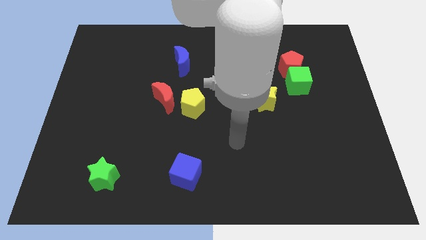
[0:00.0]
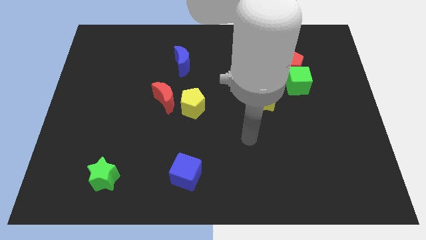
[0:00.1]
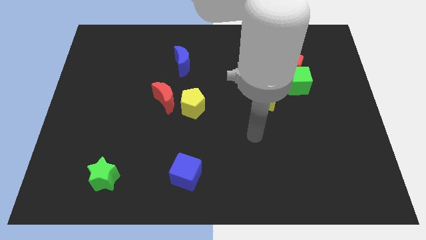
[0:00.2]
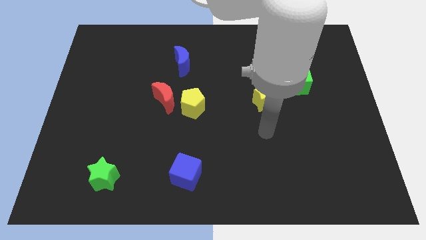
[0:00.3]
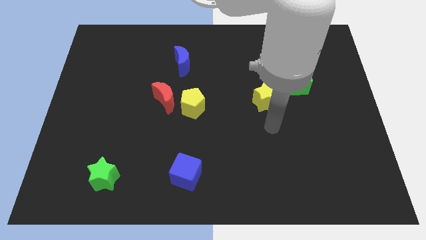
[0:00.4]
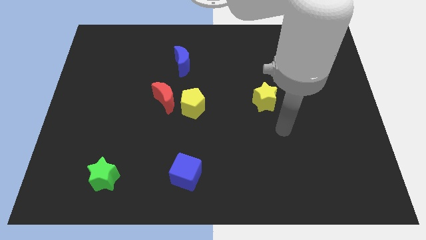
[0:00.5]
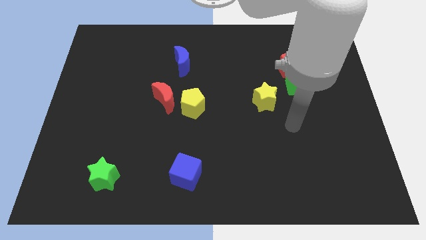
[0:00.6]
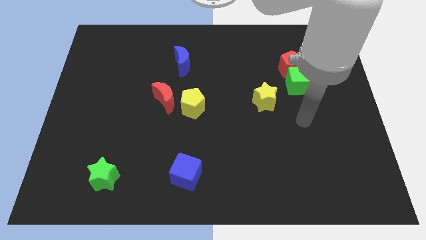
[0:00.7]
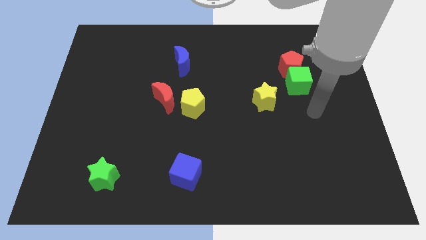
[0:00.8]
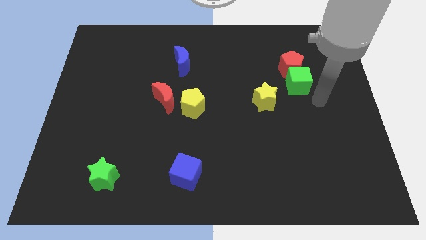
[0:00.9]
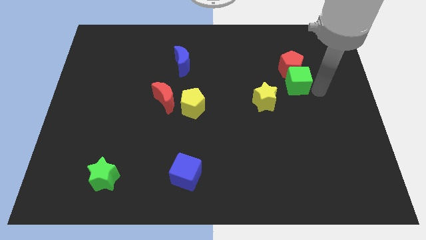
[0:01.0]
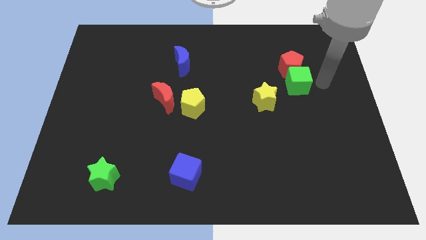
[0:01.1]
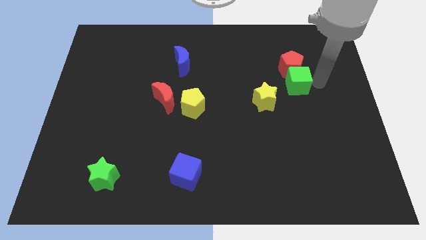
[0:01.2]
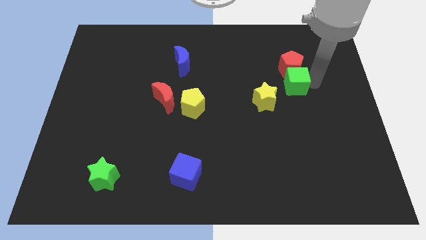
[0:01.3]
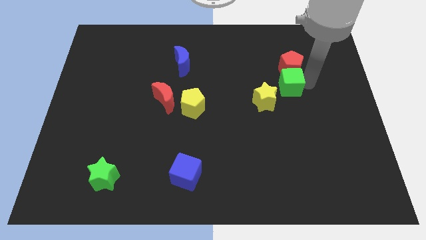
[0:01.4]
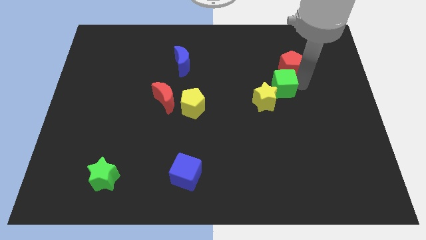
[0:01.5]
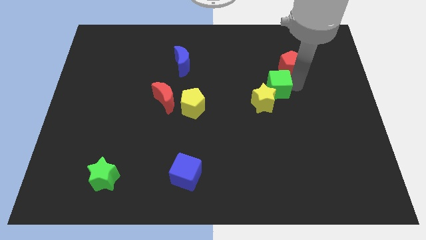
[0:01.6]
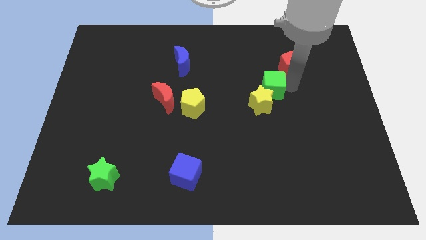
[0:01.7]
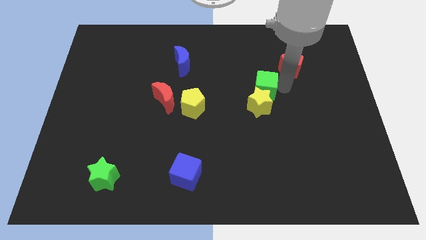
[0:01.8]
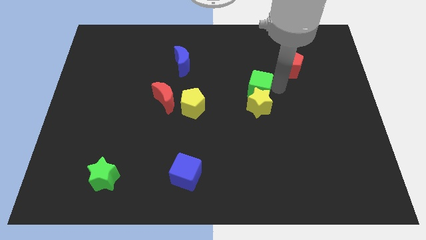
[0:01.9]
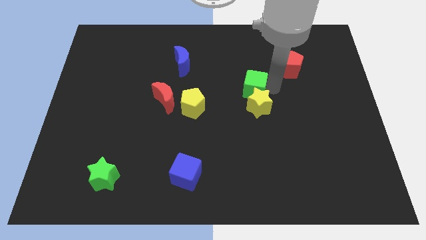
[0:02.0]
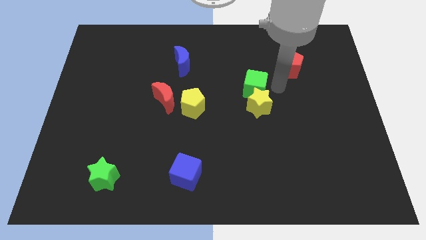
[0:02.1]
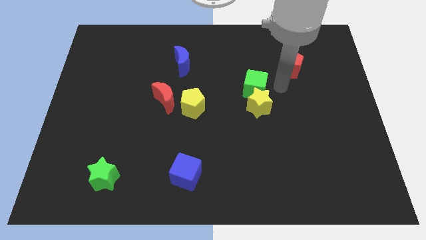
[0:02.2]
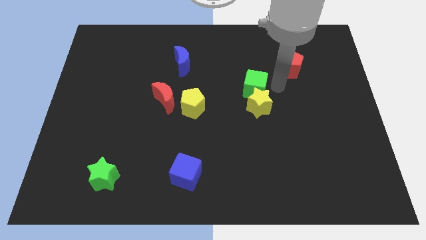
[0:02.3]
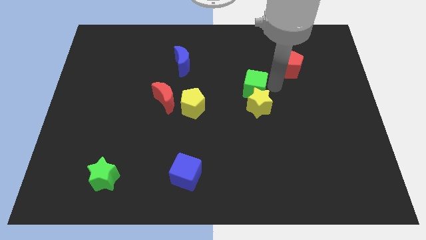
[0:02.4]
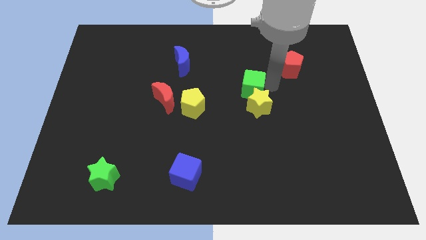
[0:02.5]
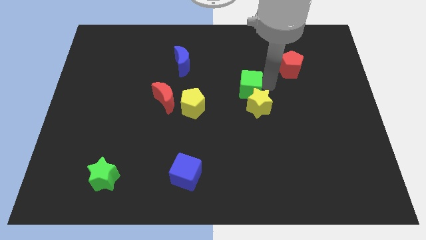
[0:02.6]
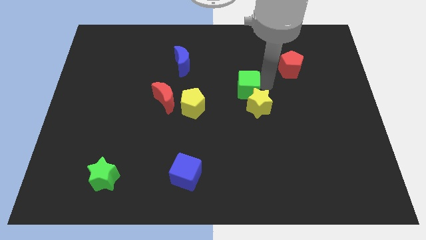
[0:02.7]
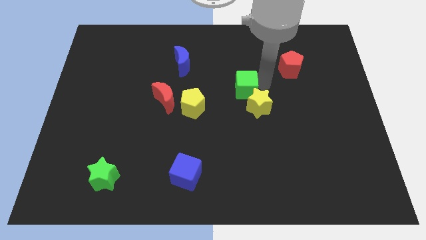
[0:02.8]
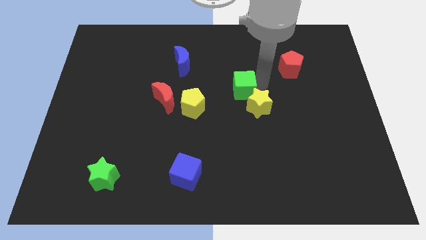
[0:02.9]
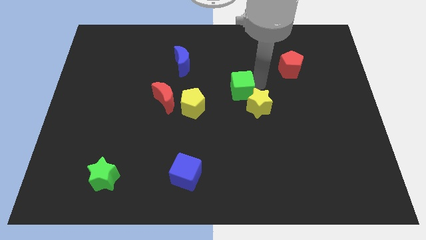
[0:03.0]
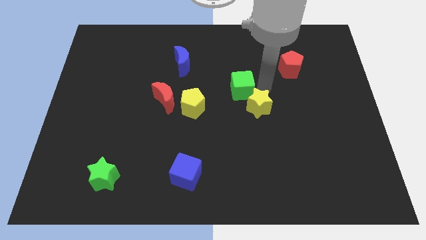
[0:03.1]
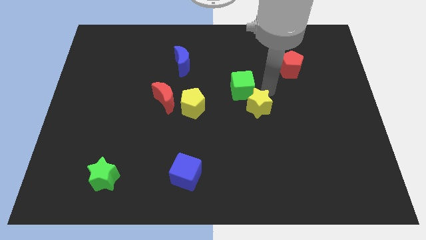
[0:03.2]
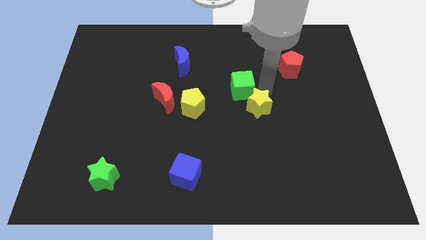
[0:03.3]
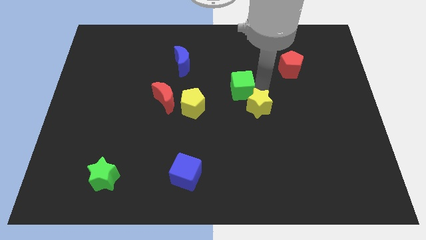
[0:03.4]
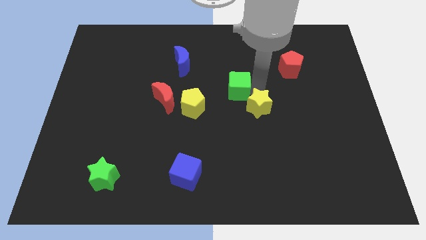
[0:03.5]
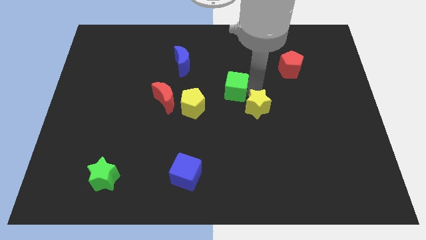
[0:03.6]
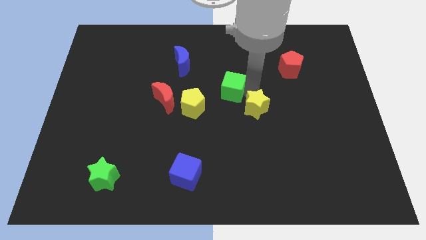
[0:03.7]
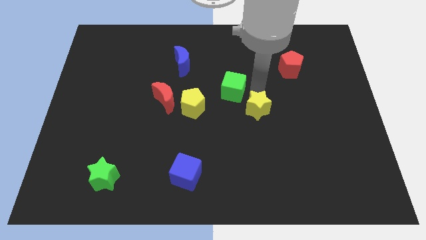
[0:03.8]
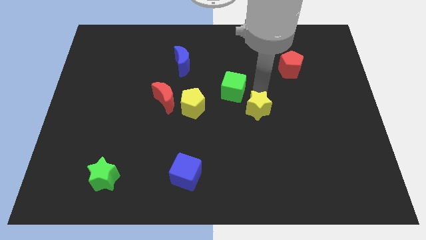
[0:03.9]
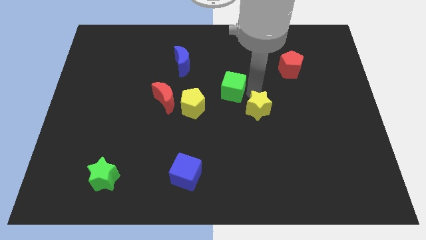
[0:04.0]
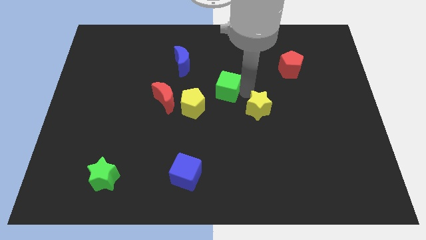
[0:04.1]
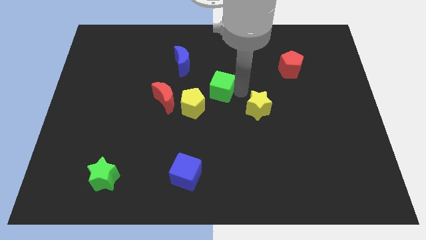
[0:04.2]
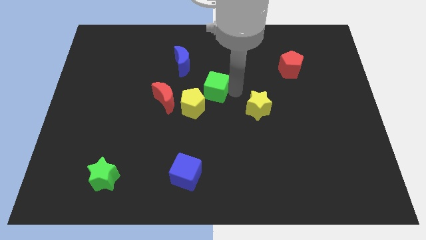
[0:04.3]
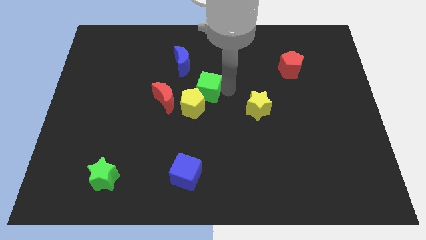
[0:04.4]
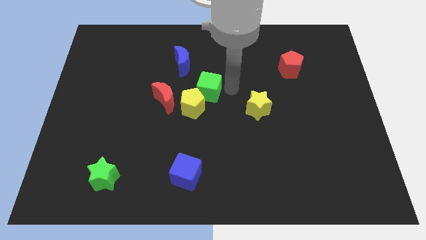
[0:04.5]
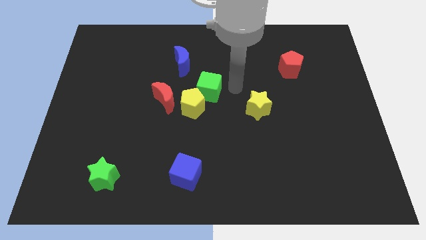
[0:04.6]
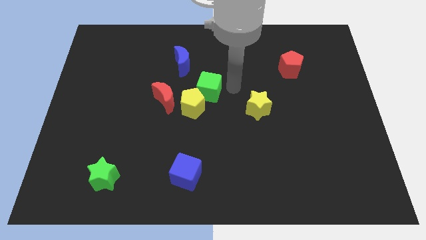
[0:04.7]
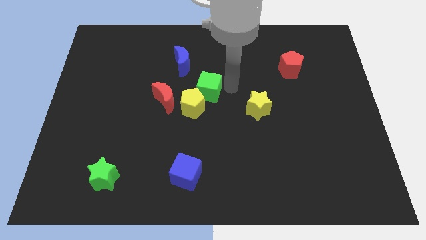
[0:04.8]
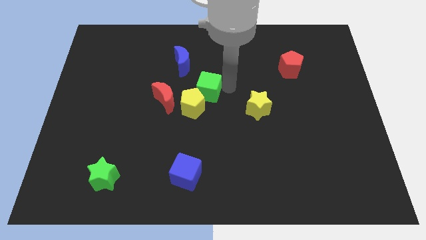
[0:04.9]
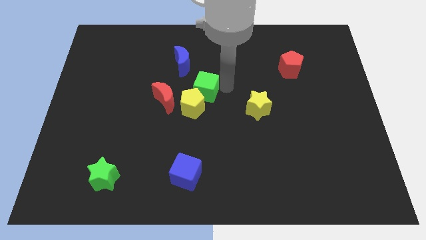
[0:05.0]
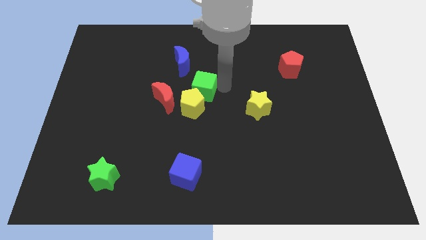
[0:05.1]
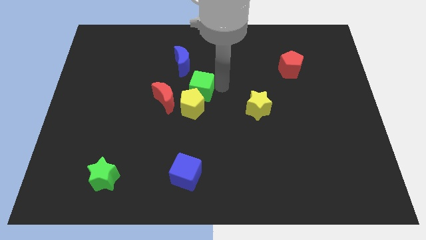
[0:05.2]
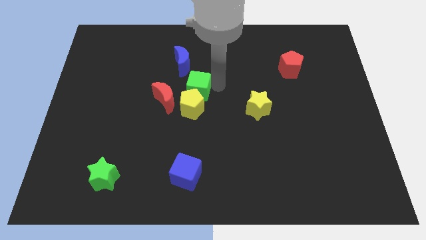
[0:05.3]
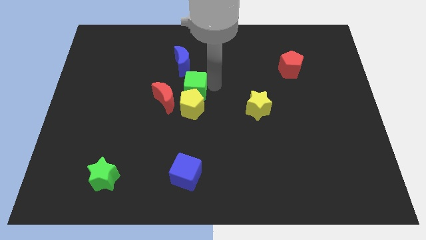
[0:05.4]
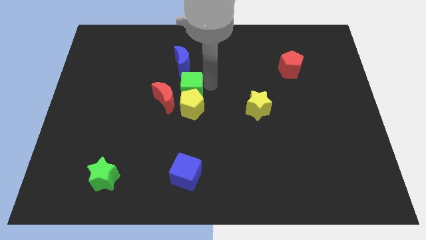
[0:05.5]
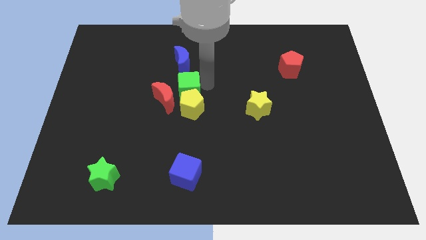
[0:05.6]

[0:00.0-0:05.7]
slide the green cube towards the red moon

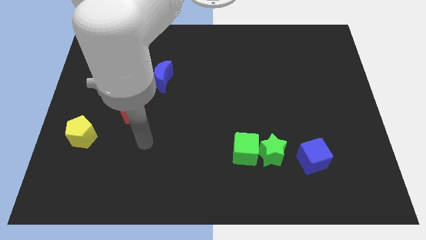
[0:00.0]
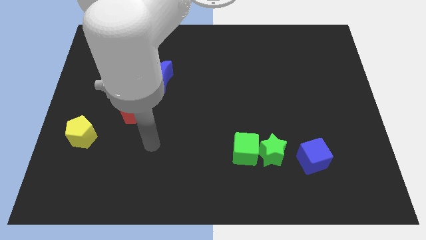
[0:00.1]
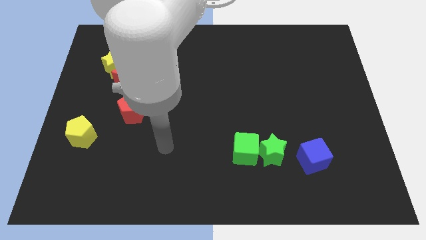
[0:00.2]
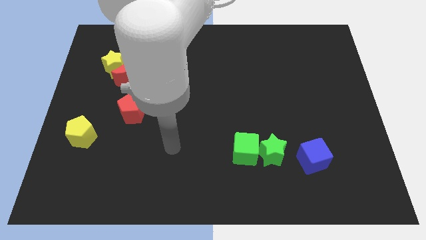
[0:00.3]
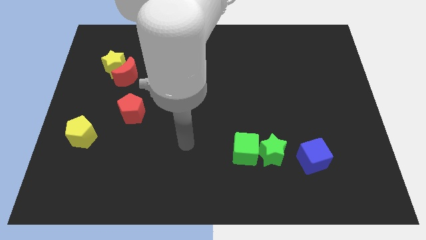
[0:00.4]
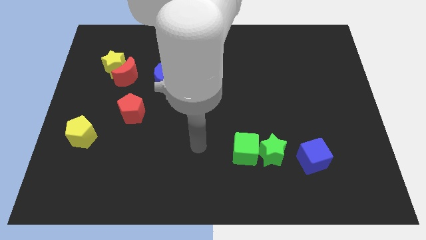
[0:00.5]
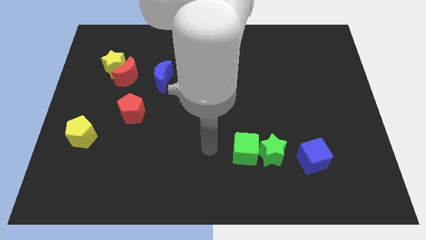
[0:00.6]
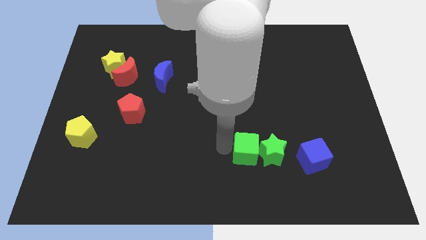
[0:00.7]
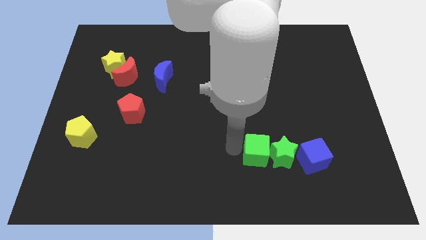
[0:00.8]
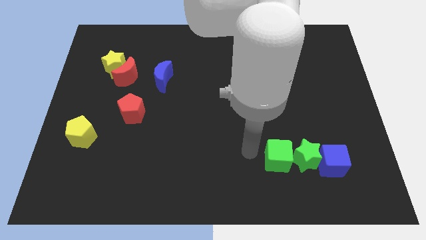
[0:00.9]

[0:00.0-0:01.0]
push the green star to the blue cube
